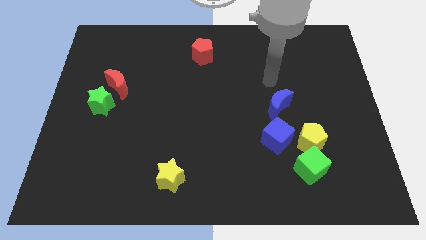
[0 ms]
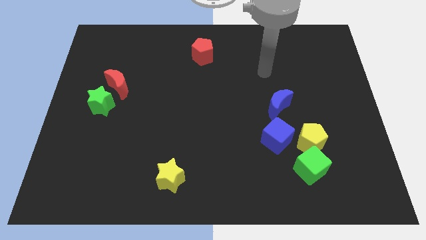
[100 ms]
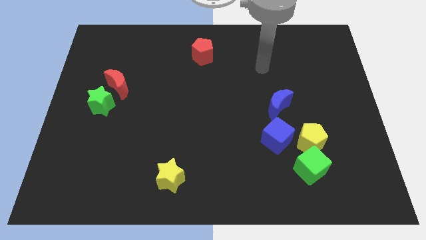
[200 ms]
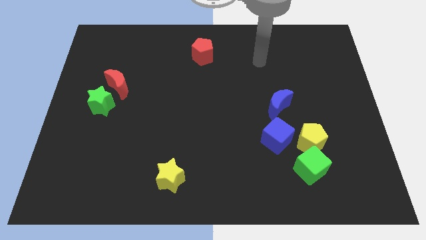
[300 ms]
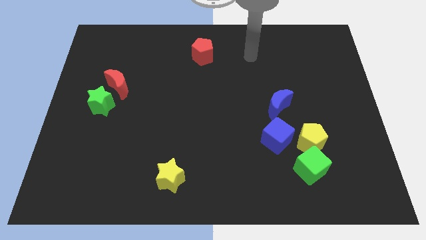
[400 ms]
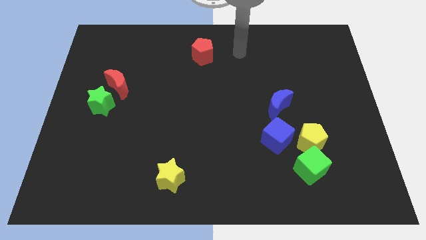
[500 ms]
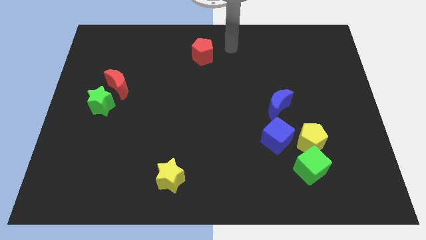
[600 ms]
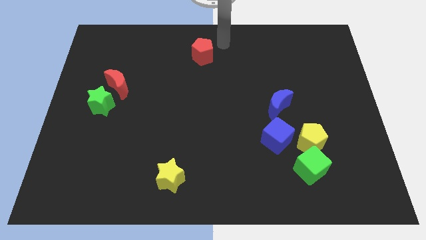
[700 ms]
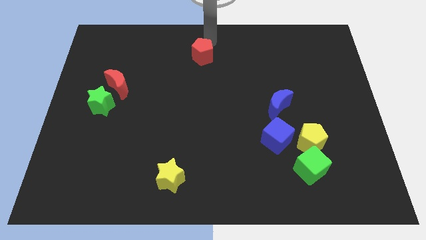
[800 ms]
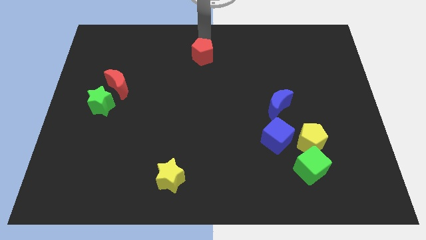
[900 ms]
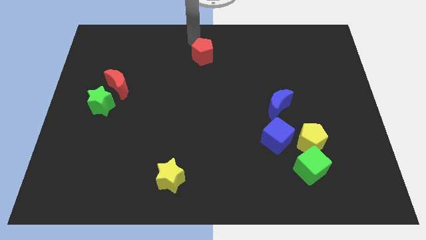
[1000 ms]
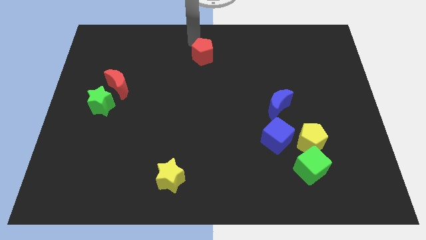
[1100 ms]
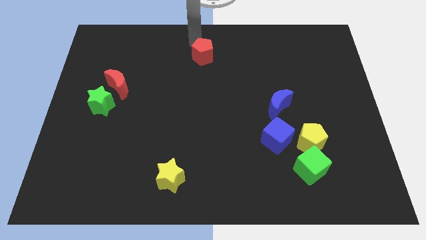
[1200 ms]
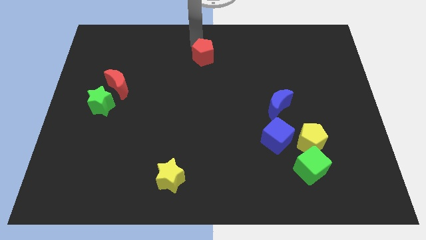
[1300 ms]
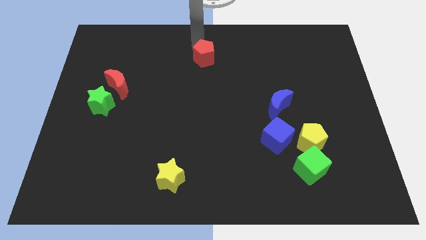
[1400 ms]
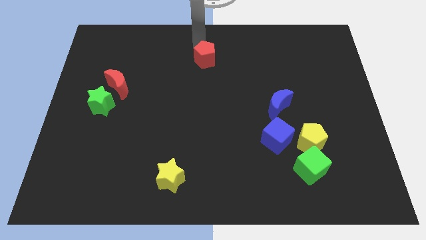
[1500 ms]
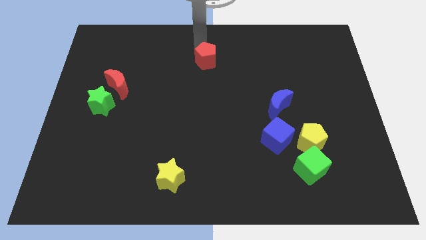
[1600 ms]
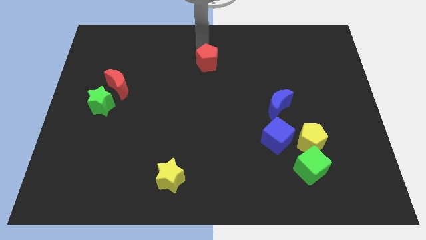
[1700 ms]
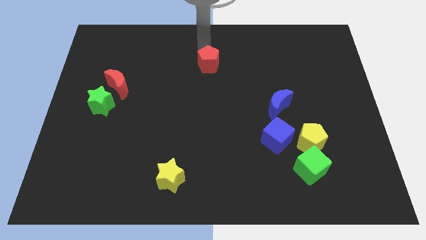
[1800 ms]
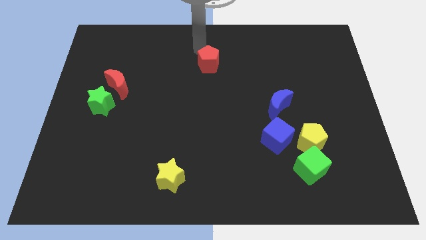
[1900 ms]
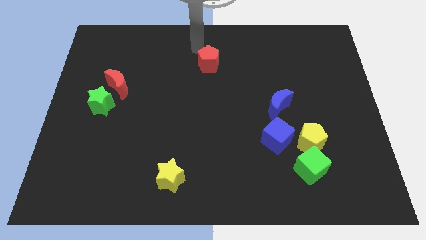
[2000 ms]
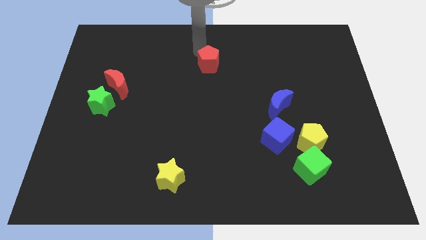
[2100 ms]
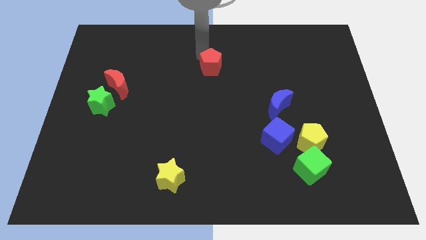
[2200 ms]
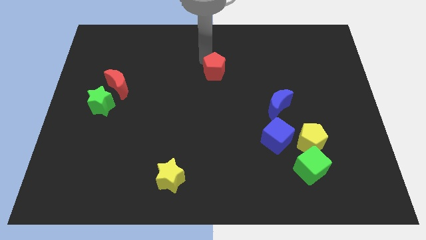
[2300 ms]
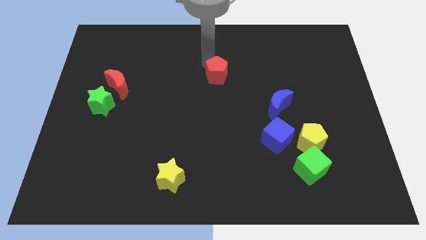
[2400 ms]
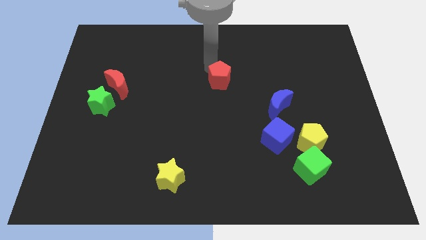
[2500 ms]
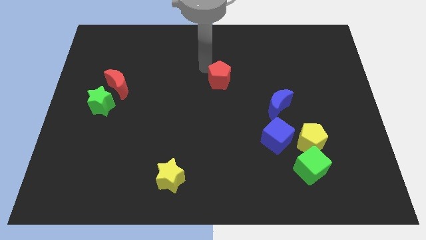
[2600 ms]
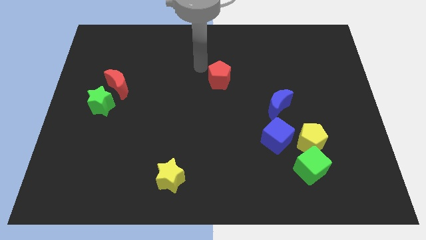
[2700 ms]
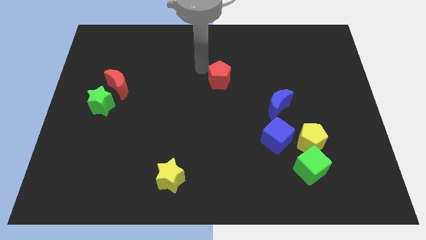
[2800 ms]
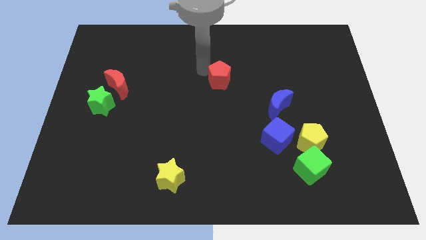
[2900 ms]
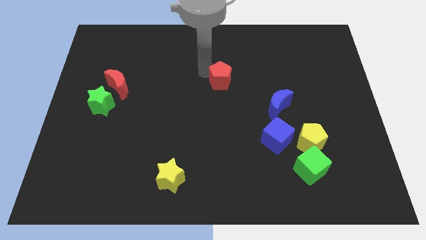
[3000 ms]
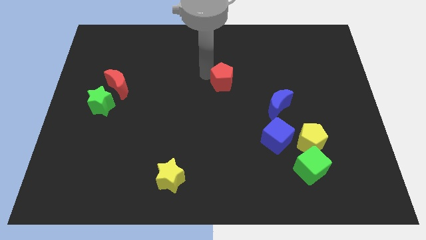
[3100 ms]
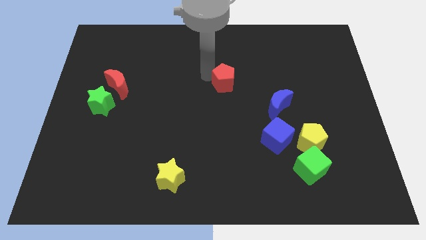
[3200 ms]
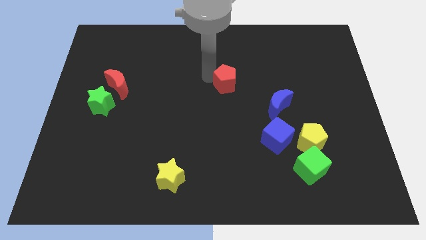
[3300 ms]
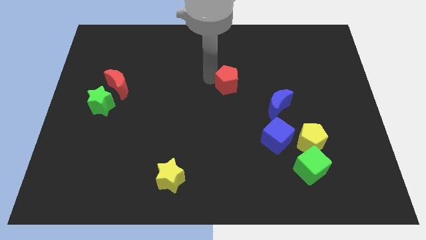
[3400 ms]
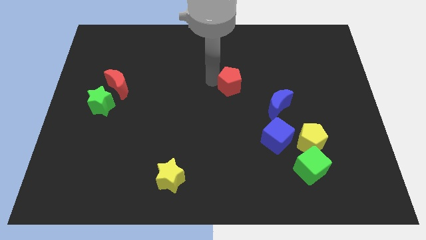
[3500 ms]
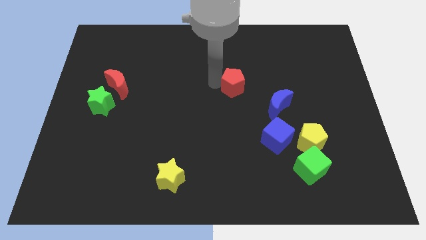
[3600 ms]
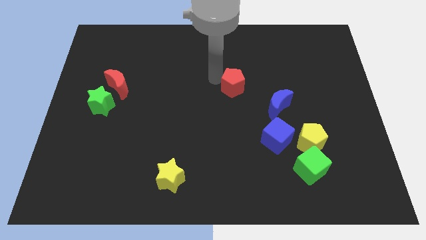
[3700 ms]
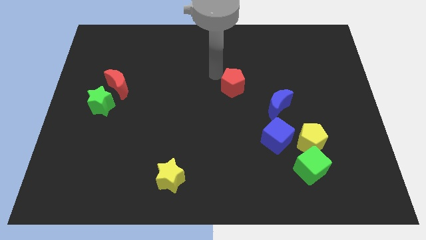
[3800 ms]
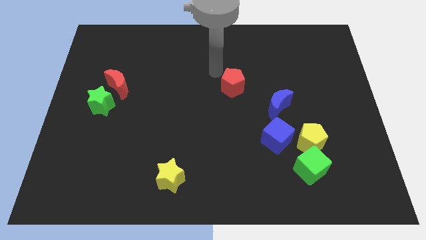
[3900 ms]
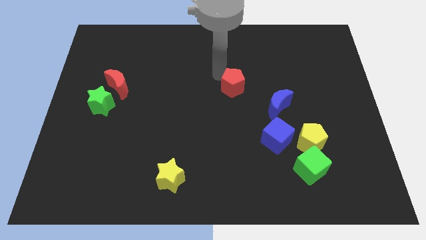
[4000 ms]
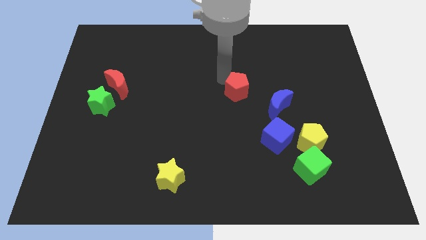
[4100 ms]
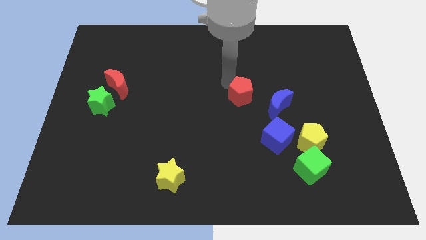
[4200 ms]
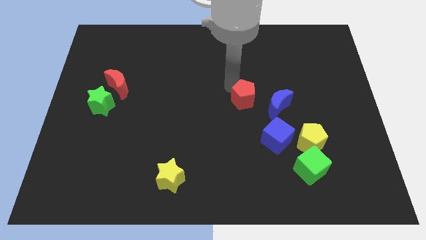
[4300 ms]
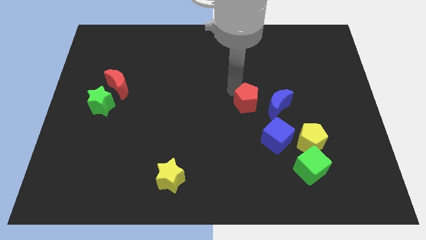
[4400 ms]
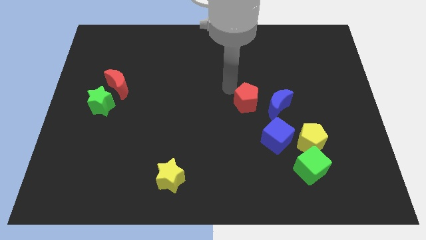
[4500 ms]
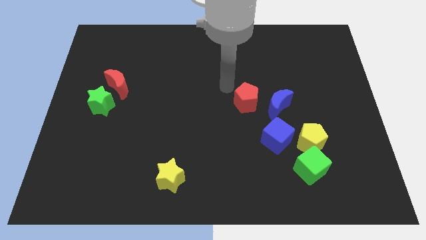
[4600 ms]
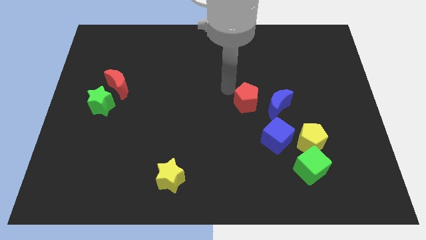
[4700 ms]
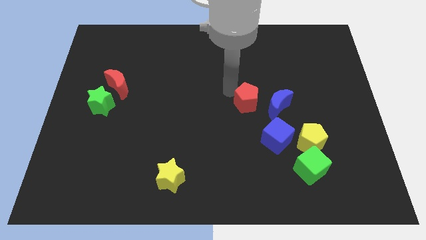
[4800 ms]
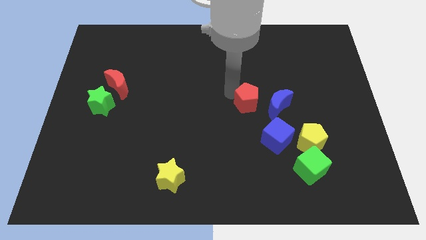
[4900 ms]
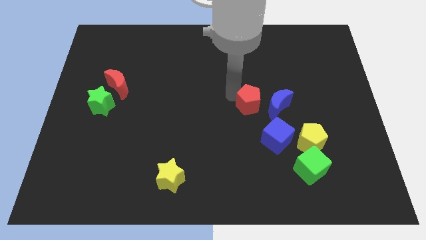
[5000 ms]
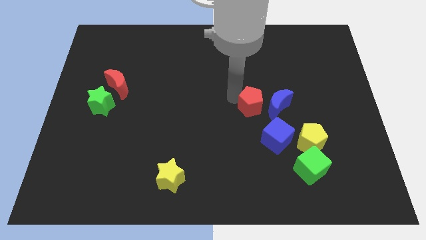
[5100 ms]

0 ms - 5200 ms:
slide the red pentagon downwards and then to the right

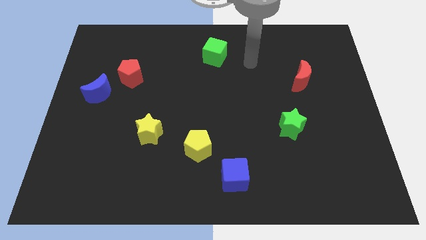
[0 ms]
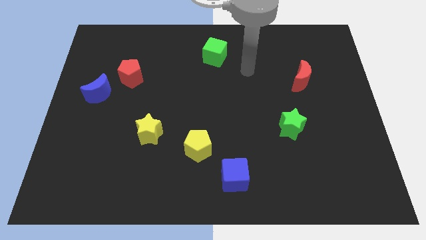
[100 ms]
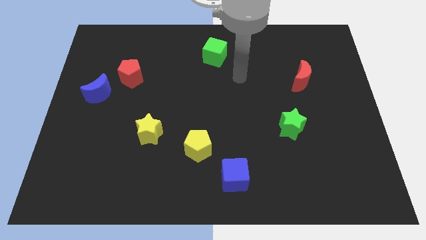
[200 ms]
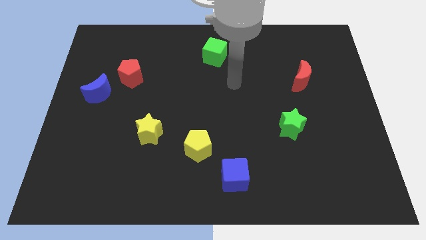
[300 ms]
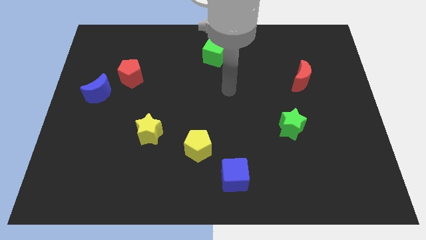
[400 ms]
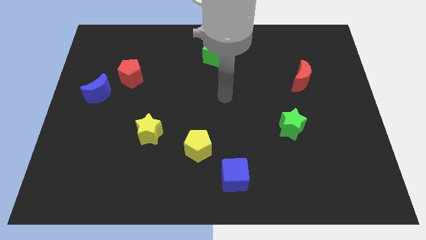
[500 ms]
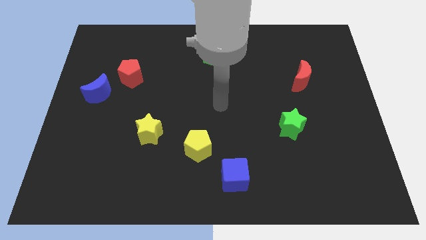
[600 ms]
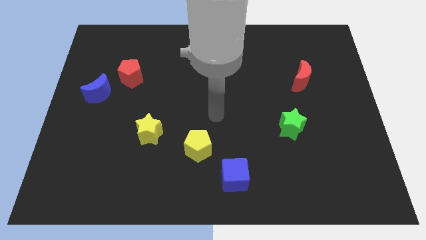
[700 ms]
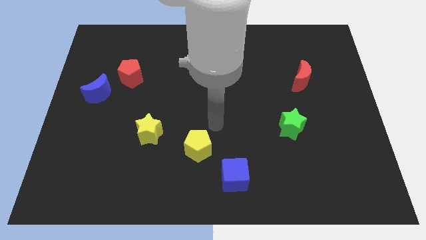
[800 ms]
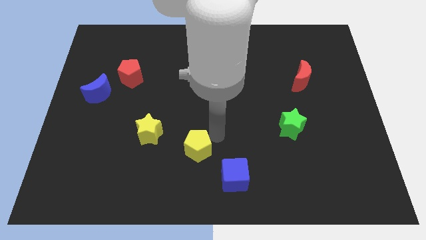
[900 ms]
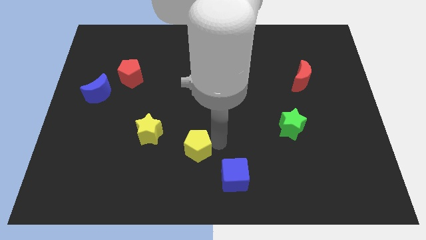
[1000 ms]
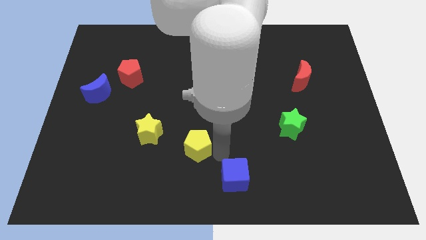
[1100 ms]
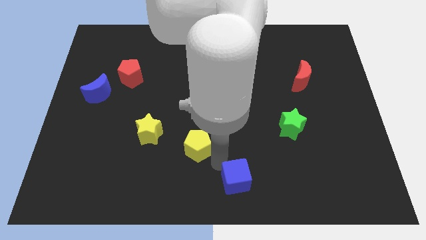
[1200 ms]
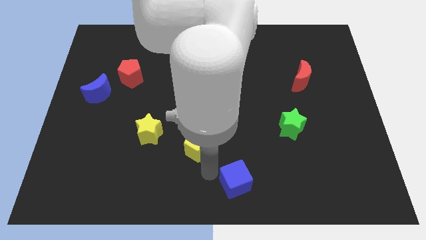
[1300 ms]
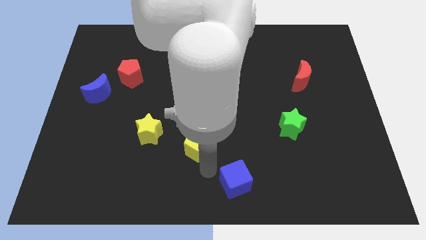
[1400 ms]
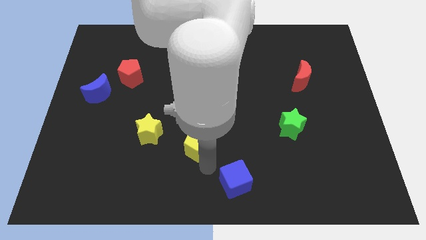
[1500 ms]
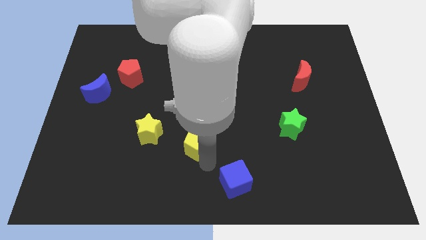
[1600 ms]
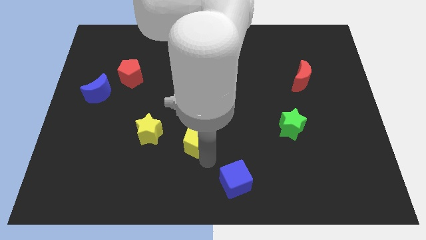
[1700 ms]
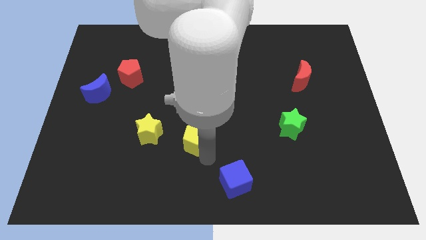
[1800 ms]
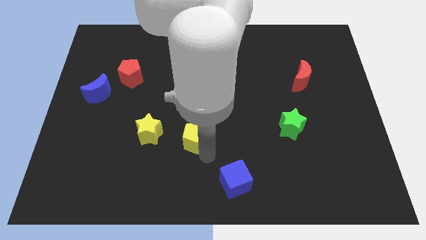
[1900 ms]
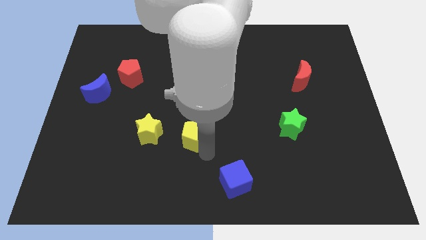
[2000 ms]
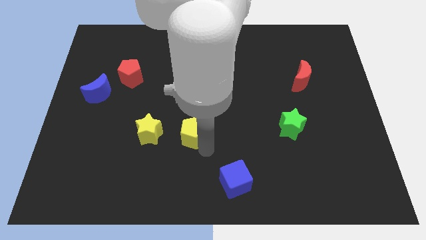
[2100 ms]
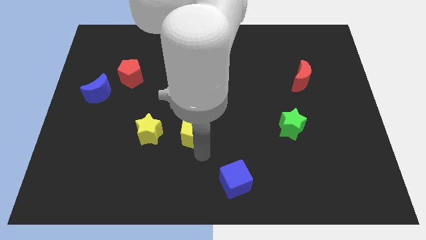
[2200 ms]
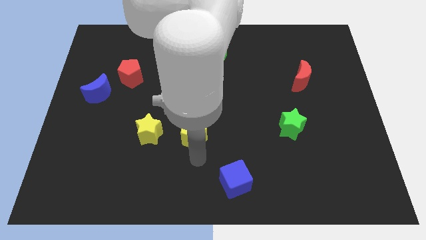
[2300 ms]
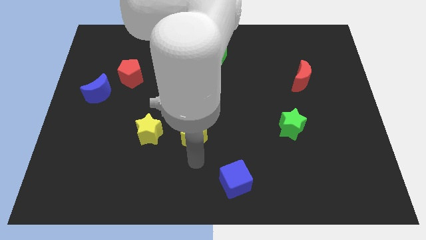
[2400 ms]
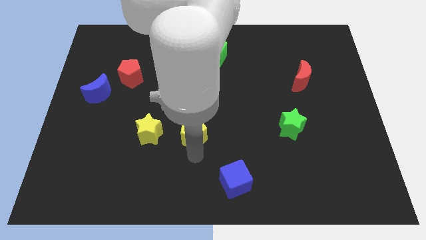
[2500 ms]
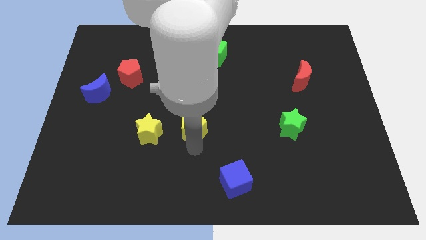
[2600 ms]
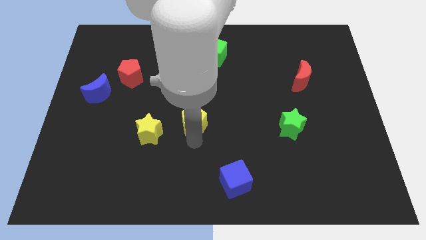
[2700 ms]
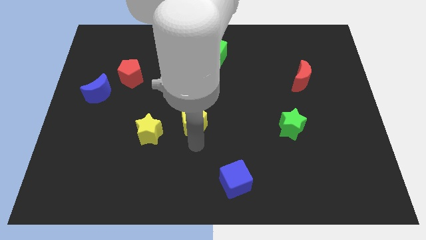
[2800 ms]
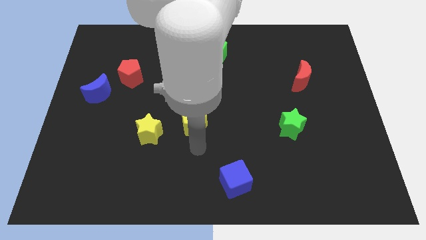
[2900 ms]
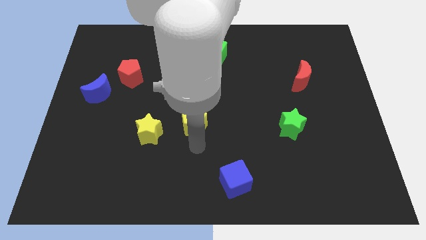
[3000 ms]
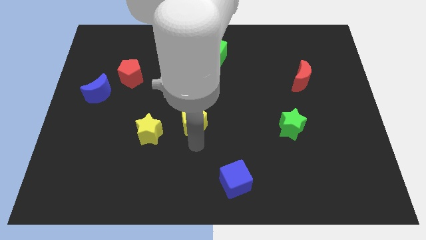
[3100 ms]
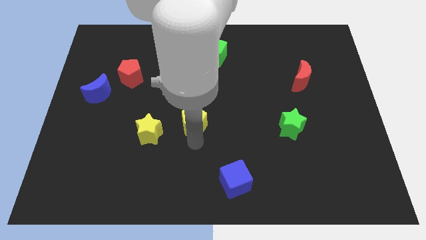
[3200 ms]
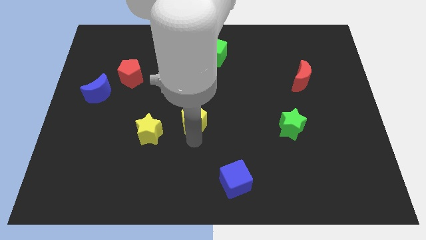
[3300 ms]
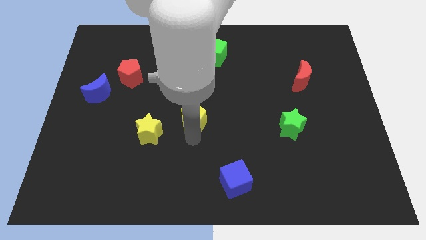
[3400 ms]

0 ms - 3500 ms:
slightly move the yellow pentagon upwards
